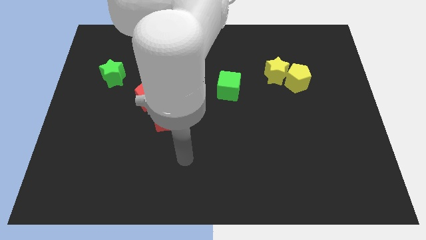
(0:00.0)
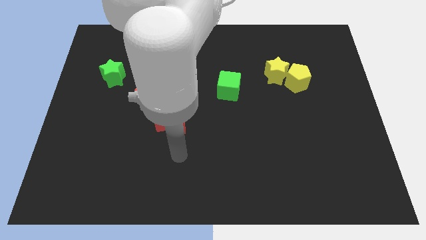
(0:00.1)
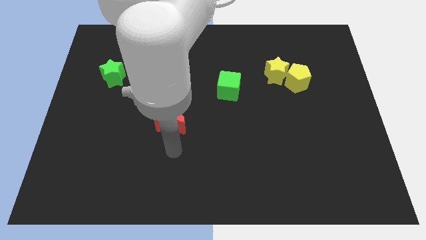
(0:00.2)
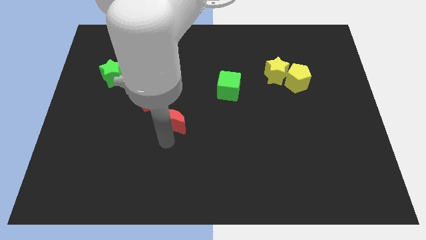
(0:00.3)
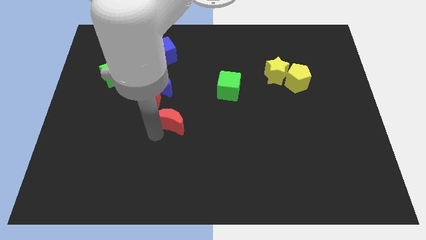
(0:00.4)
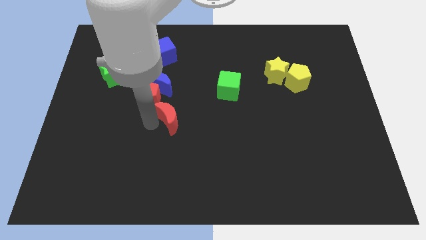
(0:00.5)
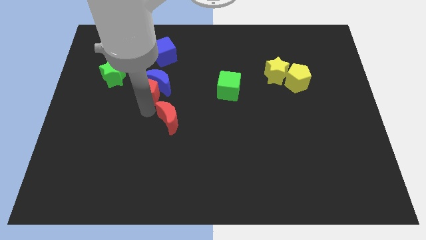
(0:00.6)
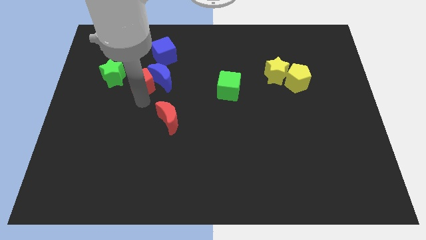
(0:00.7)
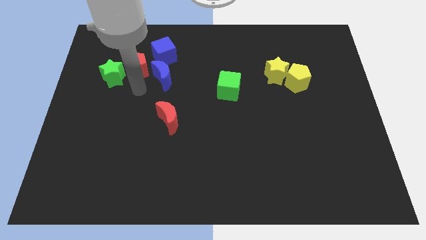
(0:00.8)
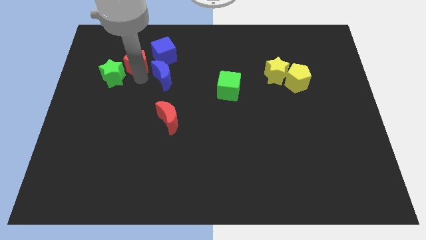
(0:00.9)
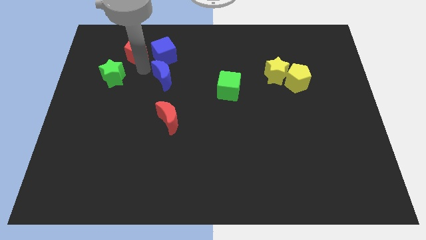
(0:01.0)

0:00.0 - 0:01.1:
move the blue moon away from the red pentagon

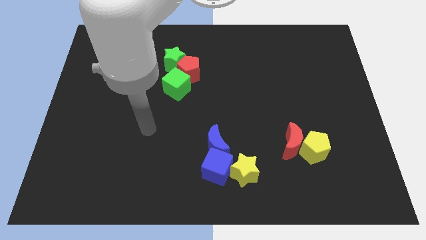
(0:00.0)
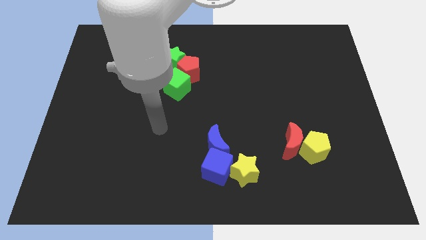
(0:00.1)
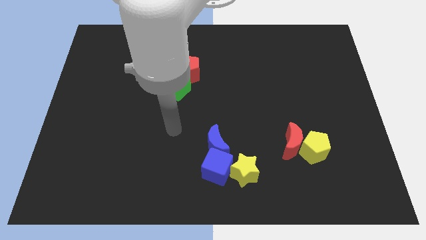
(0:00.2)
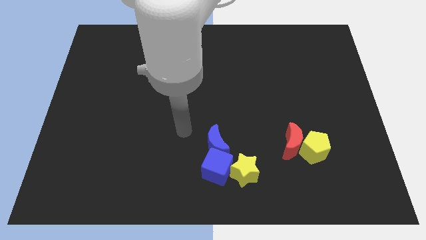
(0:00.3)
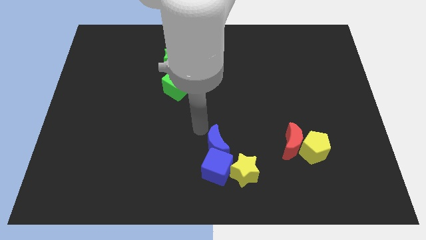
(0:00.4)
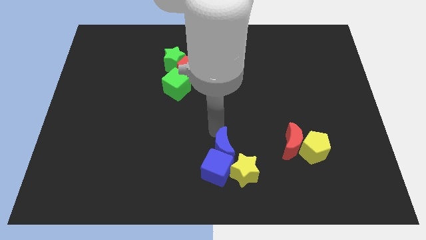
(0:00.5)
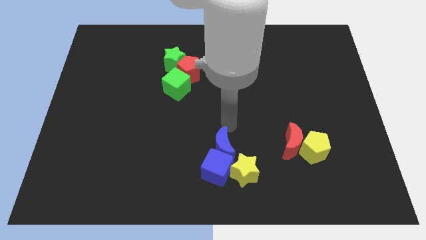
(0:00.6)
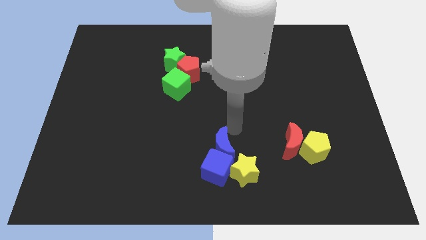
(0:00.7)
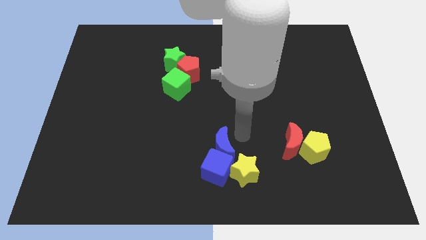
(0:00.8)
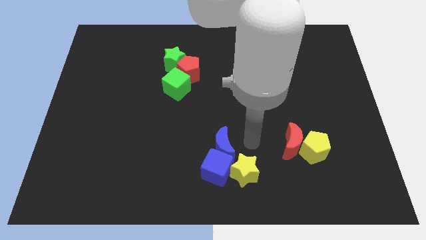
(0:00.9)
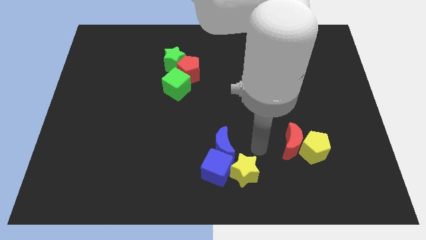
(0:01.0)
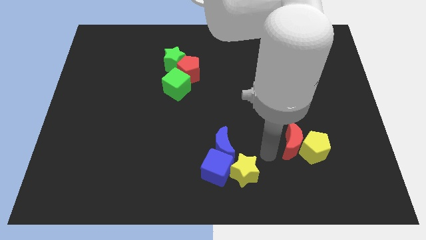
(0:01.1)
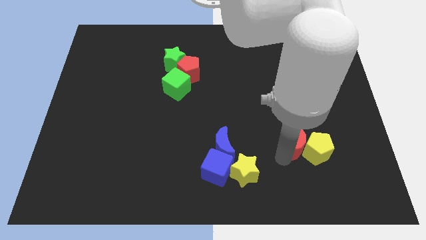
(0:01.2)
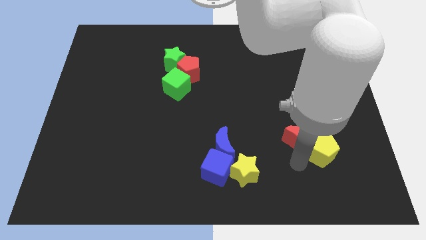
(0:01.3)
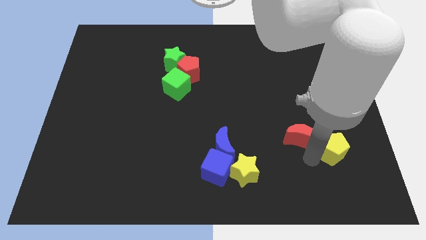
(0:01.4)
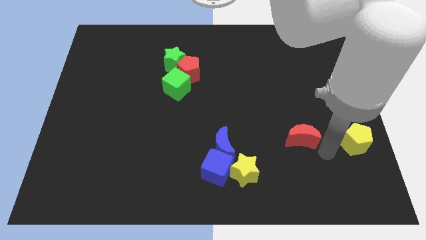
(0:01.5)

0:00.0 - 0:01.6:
separate the red moon from the yellow pentagon

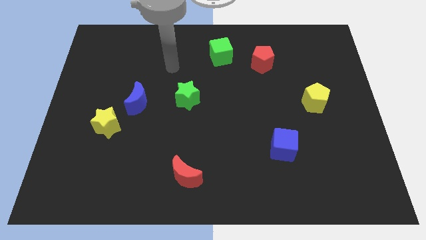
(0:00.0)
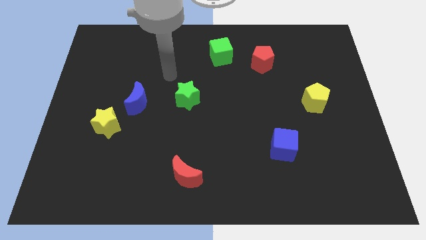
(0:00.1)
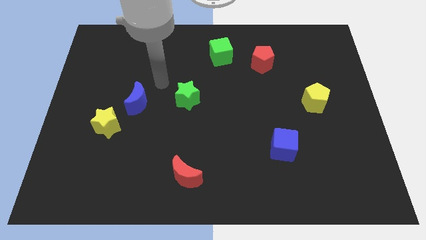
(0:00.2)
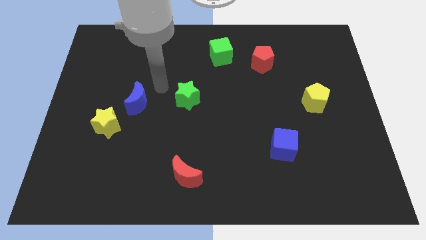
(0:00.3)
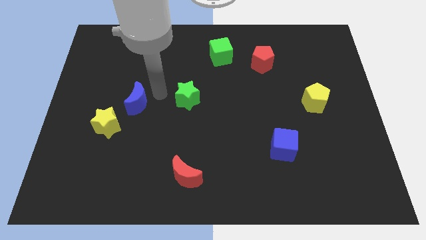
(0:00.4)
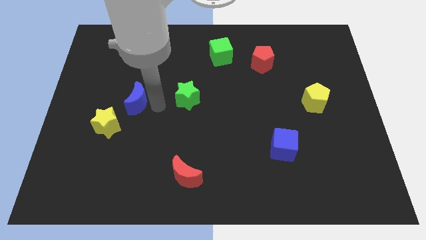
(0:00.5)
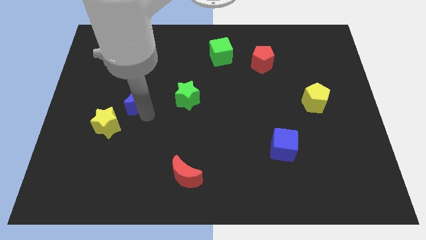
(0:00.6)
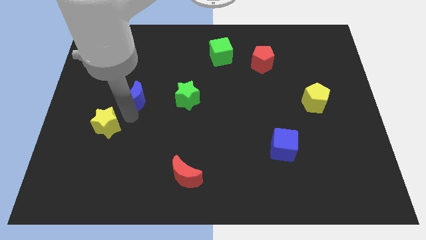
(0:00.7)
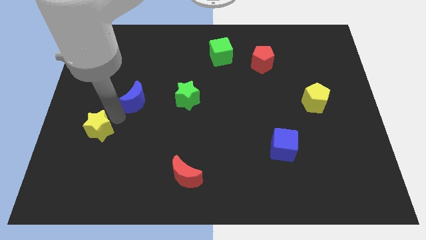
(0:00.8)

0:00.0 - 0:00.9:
separate the blue moon from the yellow star

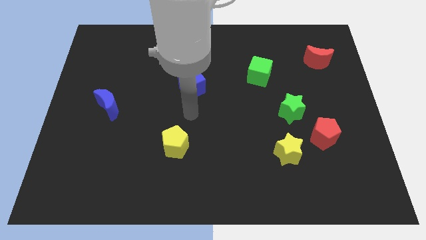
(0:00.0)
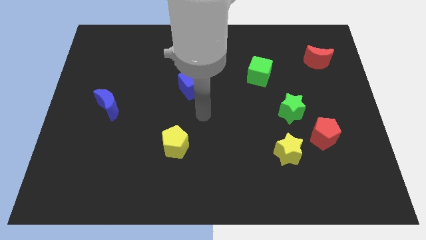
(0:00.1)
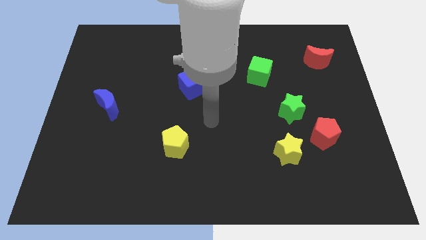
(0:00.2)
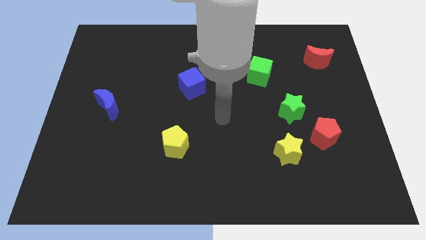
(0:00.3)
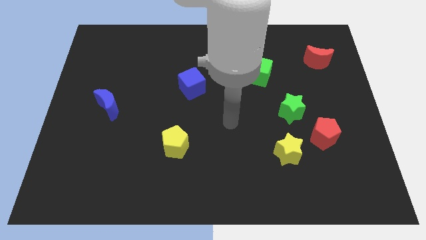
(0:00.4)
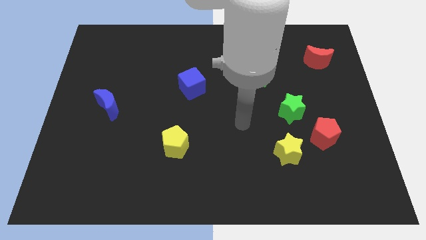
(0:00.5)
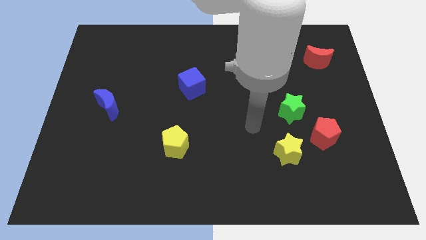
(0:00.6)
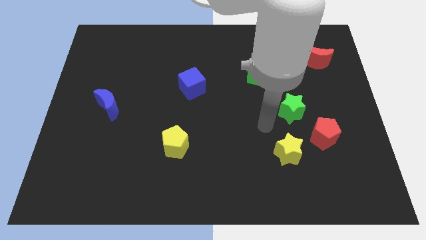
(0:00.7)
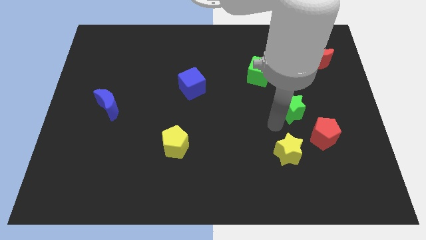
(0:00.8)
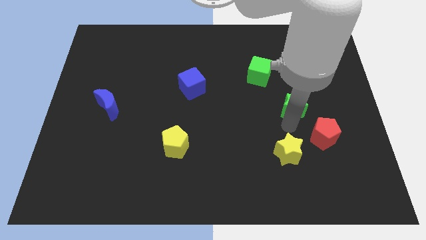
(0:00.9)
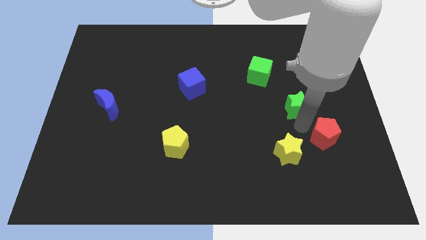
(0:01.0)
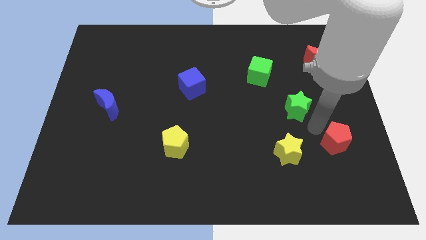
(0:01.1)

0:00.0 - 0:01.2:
move the green star away from the red pentagon

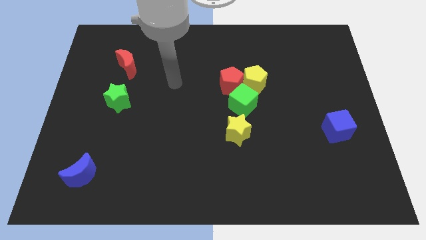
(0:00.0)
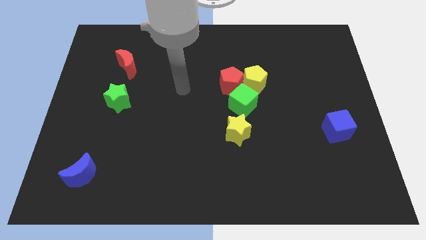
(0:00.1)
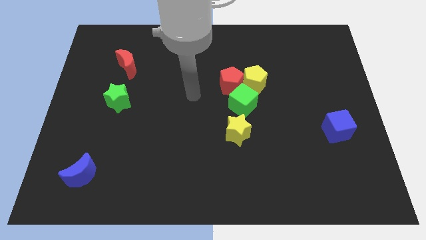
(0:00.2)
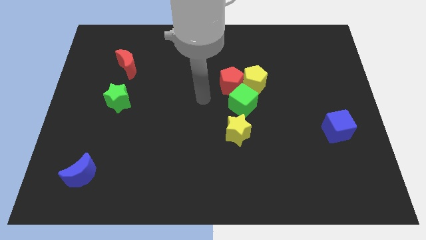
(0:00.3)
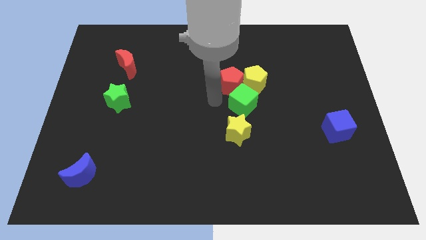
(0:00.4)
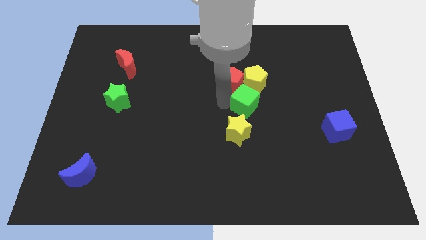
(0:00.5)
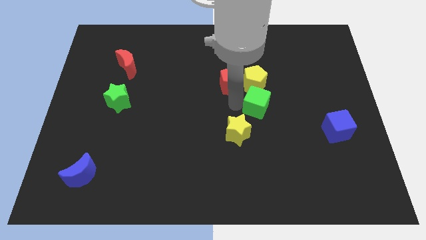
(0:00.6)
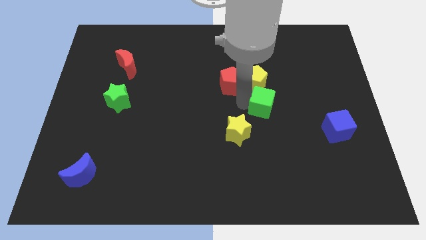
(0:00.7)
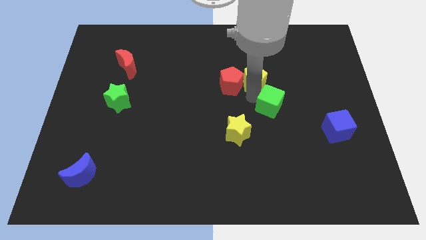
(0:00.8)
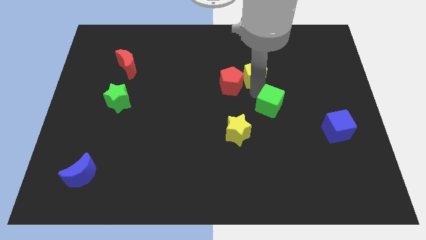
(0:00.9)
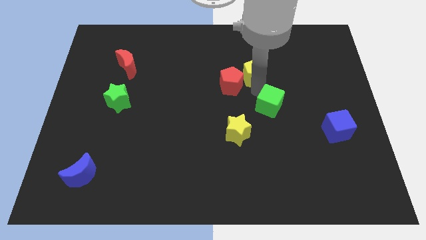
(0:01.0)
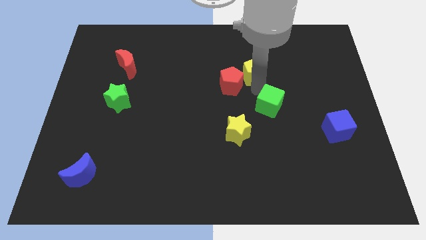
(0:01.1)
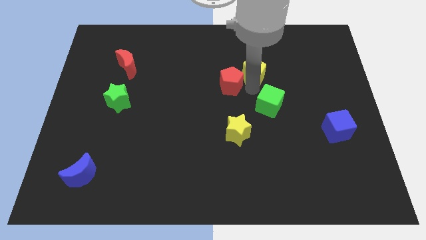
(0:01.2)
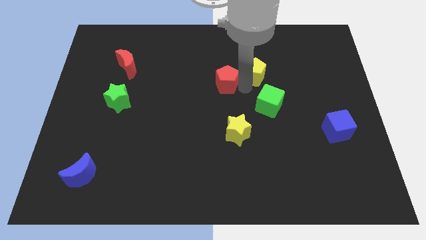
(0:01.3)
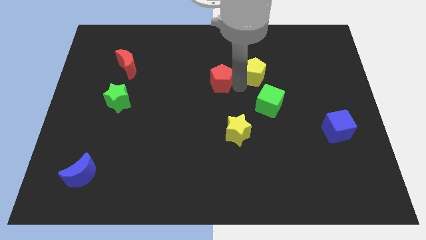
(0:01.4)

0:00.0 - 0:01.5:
pull the red pentagon apart from the yellow pentagon and green cube

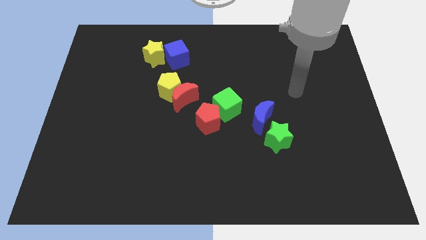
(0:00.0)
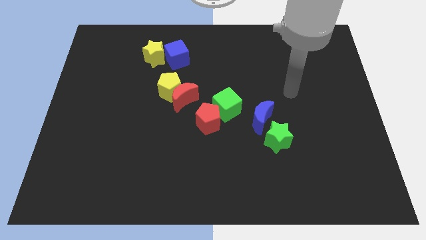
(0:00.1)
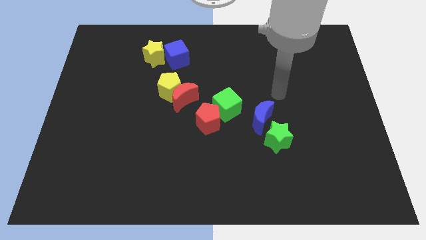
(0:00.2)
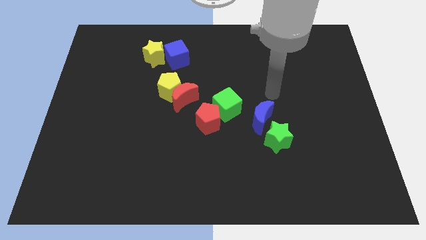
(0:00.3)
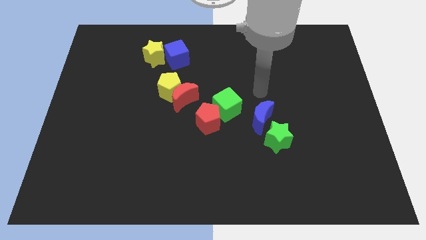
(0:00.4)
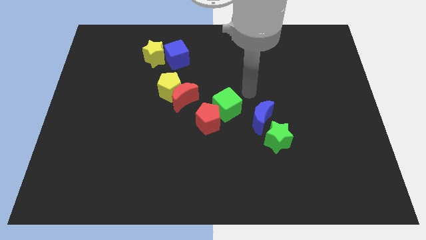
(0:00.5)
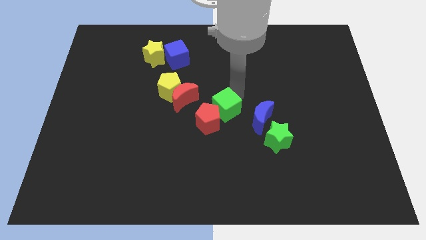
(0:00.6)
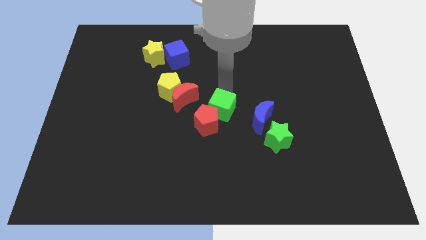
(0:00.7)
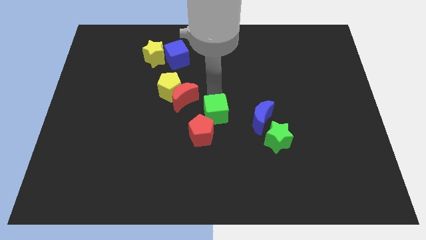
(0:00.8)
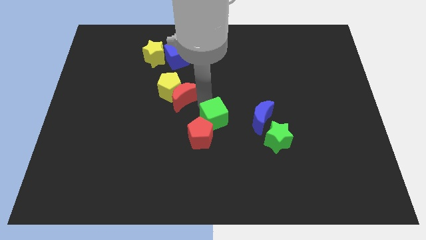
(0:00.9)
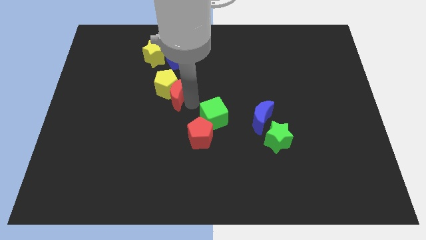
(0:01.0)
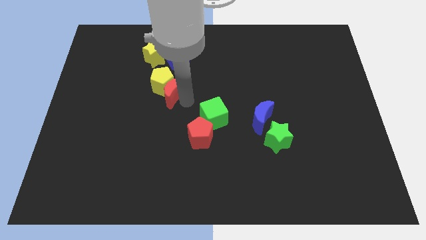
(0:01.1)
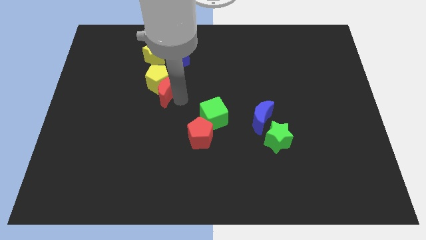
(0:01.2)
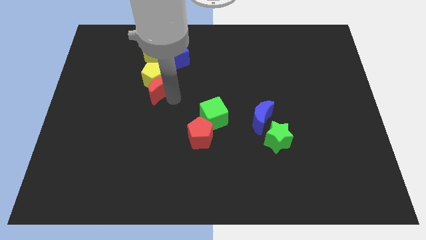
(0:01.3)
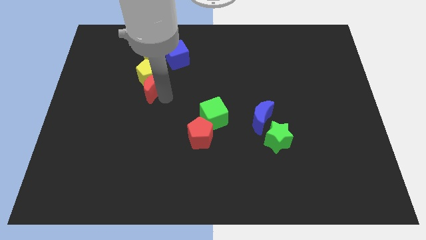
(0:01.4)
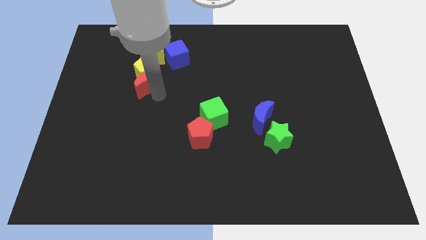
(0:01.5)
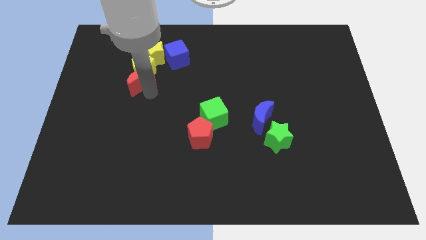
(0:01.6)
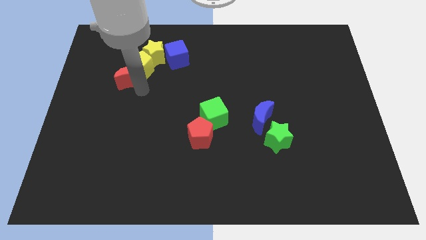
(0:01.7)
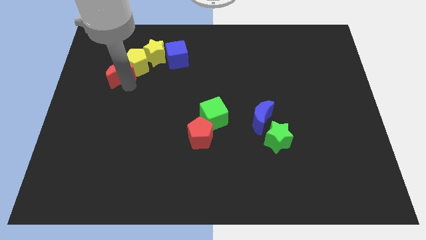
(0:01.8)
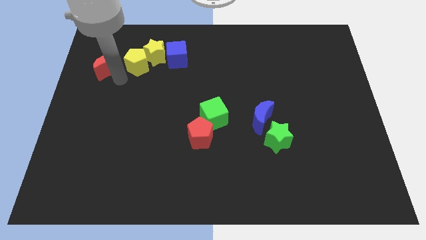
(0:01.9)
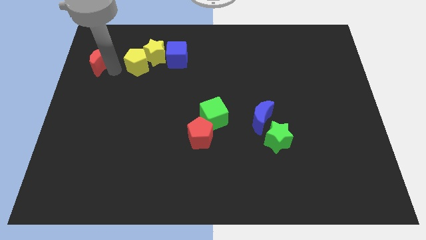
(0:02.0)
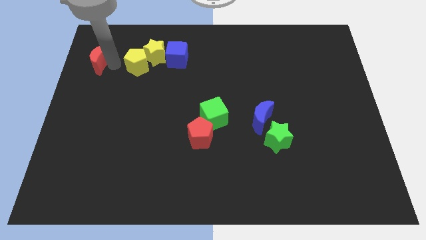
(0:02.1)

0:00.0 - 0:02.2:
separate the yellow pentagon from the red moon

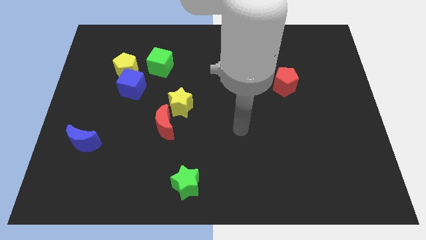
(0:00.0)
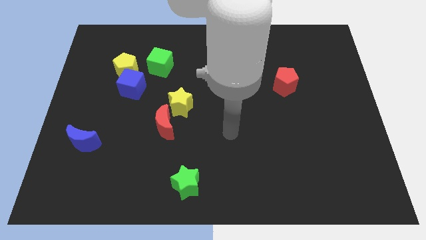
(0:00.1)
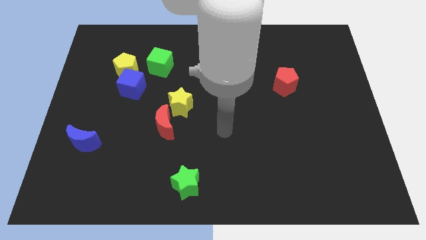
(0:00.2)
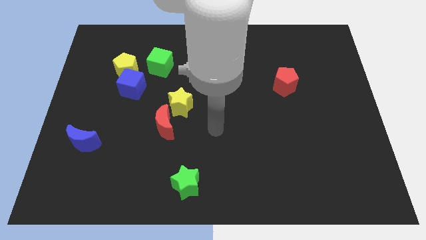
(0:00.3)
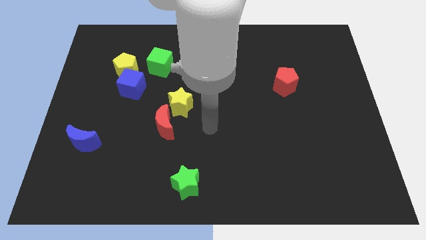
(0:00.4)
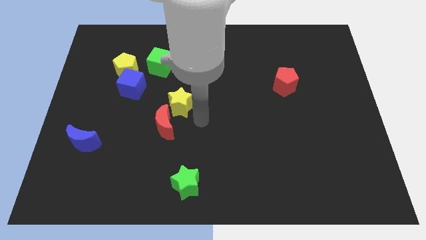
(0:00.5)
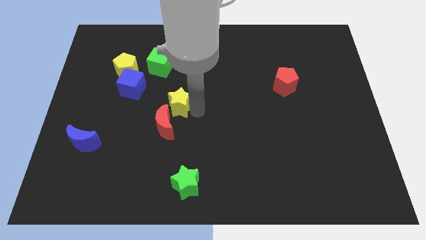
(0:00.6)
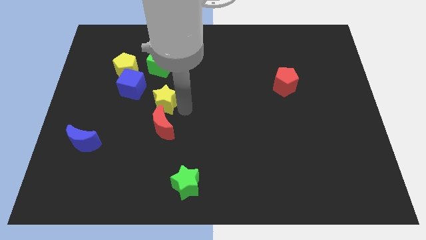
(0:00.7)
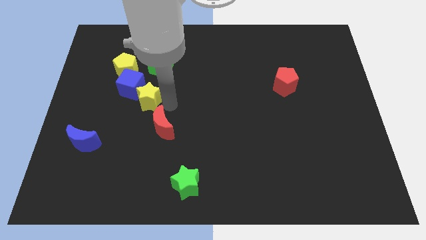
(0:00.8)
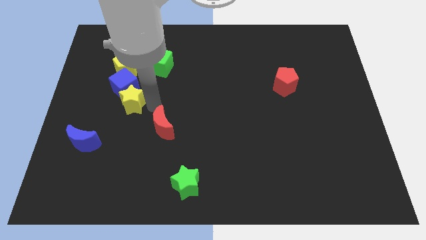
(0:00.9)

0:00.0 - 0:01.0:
separate the red moon from the yellow star

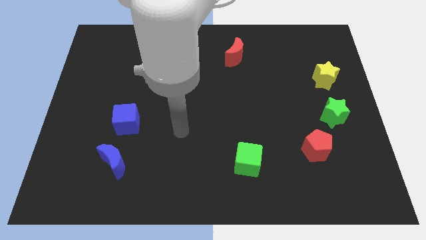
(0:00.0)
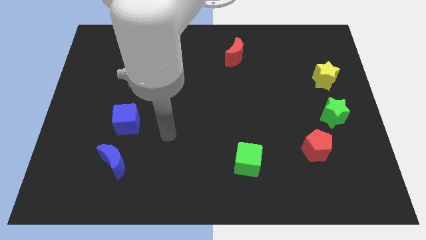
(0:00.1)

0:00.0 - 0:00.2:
pull the blue moon apart from the blue cube
